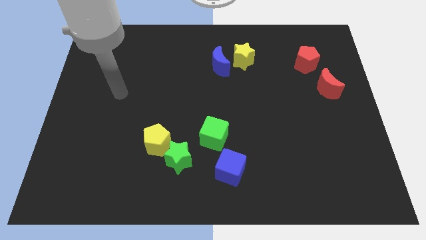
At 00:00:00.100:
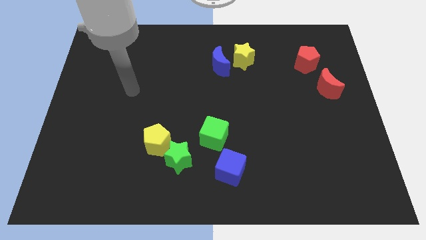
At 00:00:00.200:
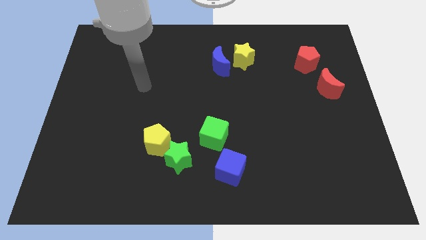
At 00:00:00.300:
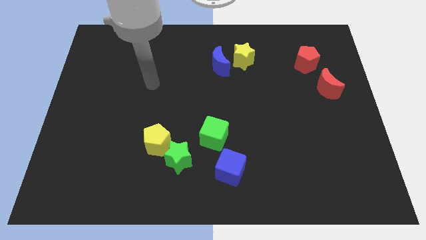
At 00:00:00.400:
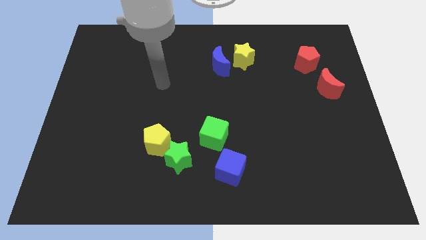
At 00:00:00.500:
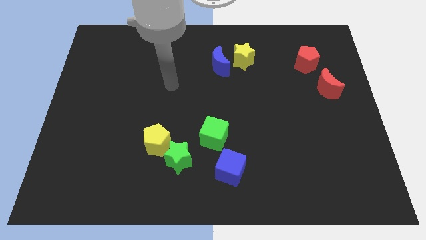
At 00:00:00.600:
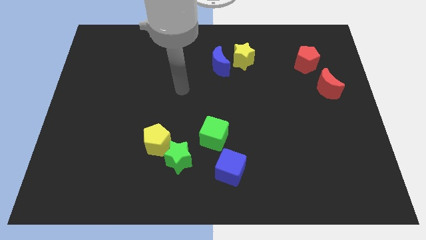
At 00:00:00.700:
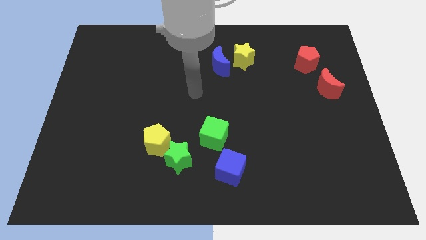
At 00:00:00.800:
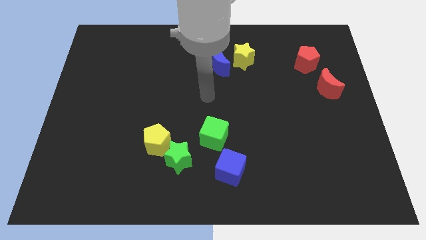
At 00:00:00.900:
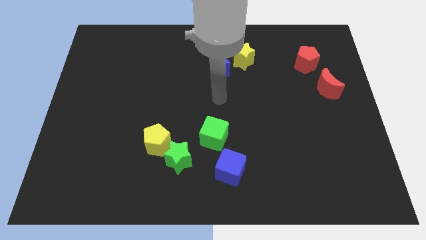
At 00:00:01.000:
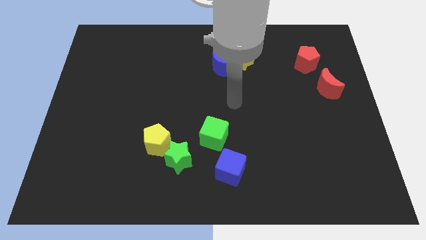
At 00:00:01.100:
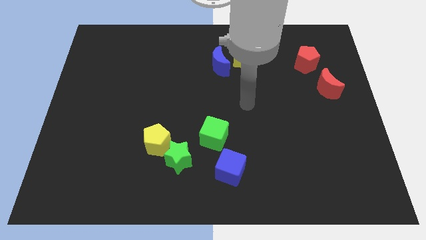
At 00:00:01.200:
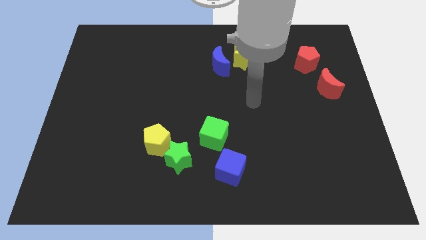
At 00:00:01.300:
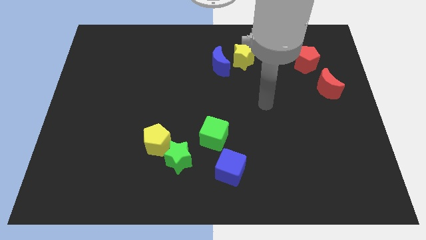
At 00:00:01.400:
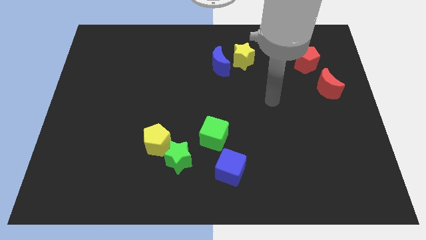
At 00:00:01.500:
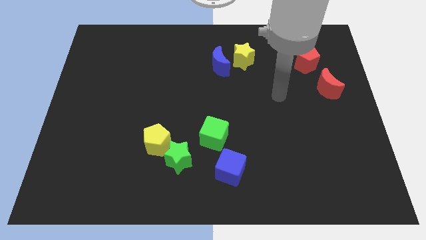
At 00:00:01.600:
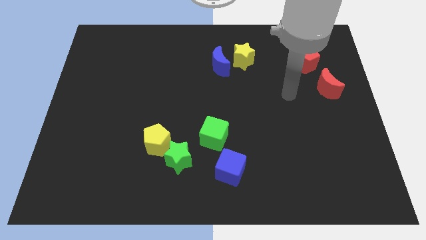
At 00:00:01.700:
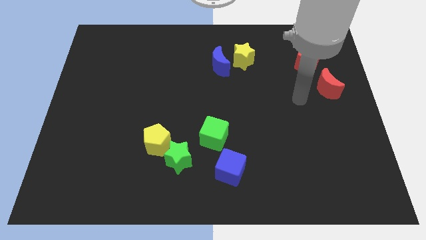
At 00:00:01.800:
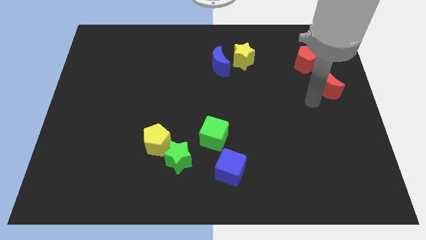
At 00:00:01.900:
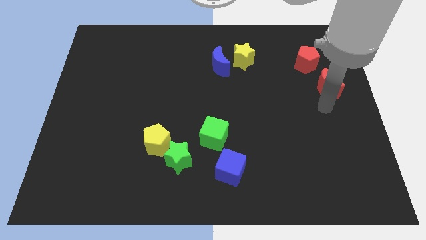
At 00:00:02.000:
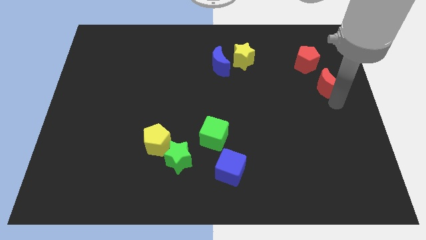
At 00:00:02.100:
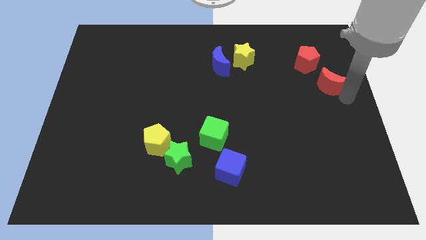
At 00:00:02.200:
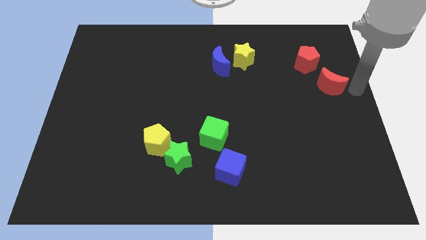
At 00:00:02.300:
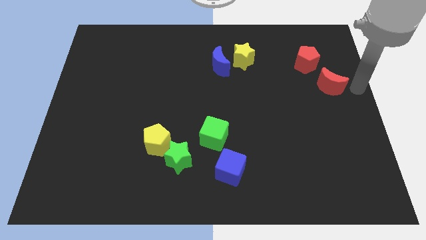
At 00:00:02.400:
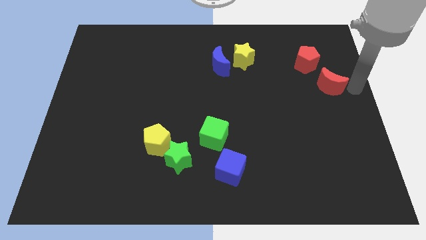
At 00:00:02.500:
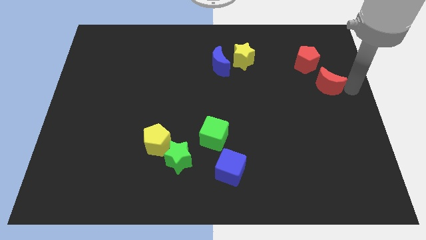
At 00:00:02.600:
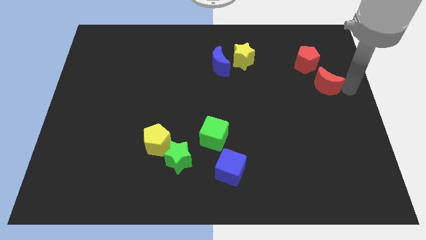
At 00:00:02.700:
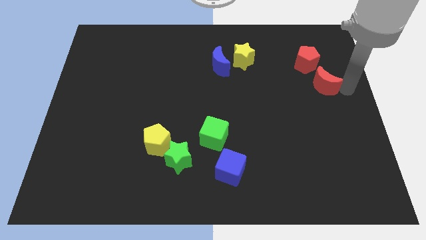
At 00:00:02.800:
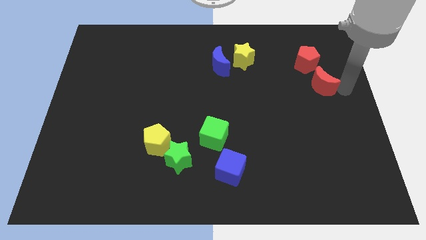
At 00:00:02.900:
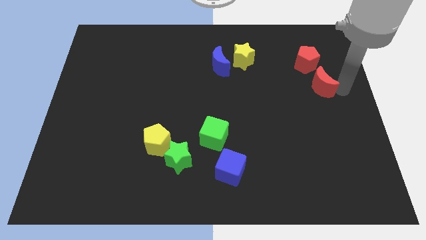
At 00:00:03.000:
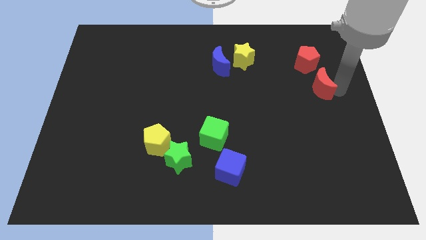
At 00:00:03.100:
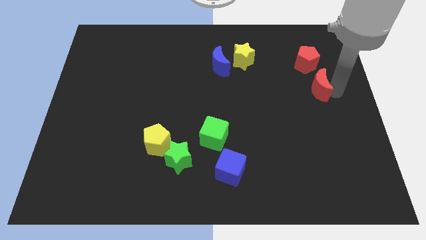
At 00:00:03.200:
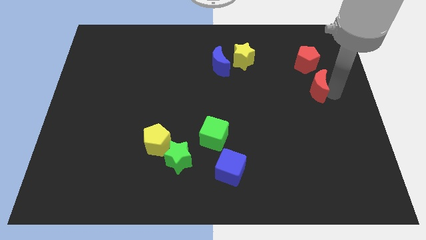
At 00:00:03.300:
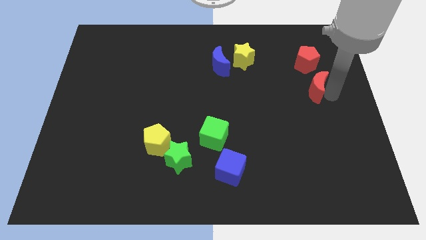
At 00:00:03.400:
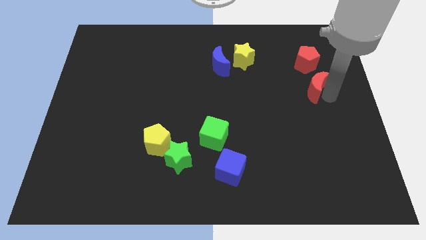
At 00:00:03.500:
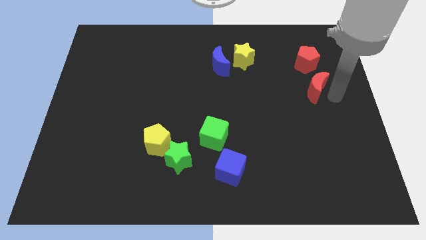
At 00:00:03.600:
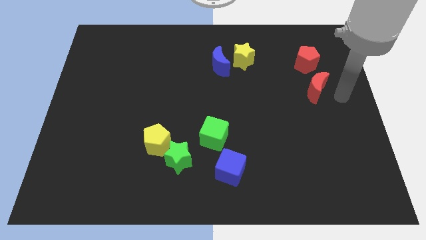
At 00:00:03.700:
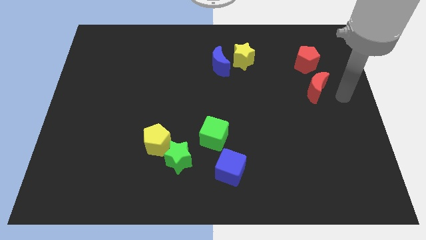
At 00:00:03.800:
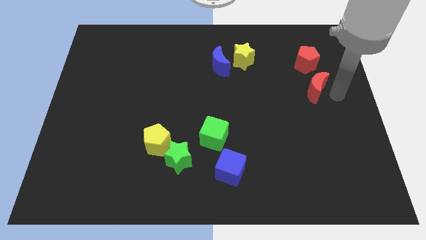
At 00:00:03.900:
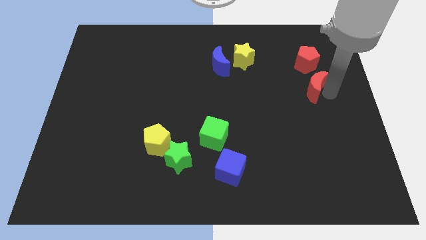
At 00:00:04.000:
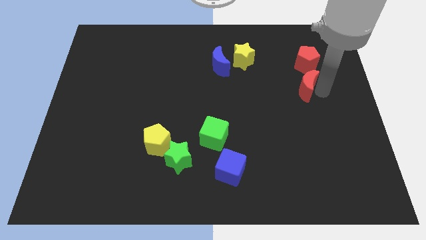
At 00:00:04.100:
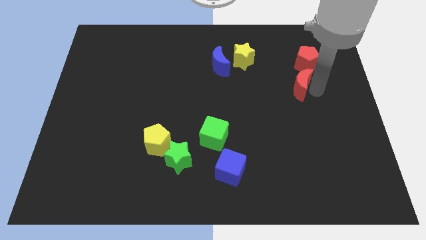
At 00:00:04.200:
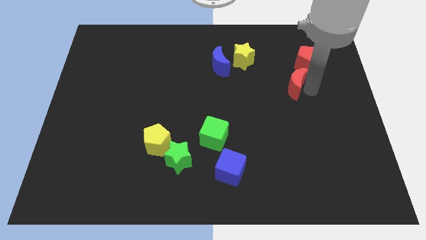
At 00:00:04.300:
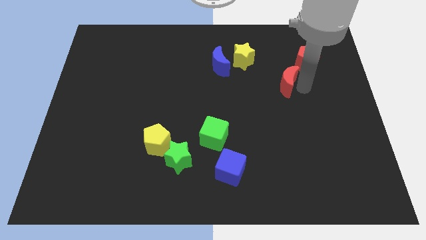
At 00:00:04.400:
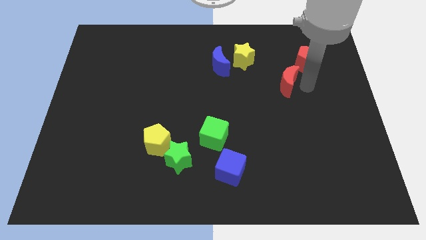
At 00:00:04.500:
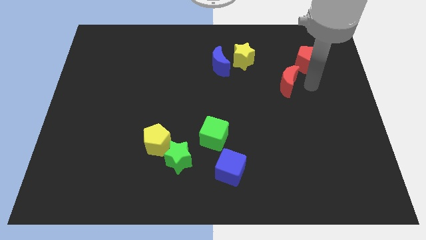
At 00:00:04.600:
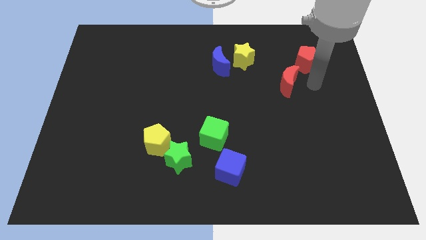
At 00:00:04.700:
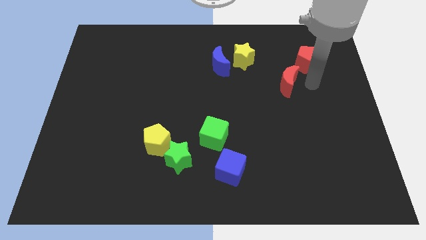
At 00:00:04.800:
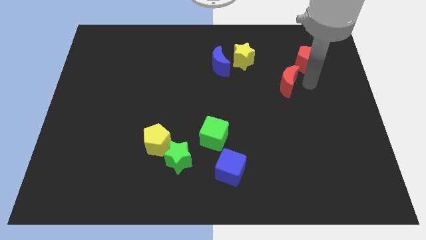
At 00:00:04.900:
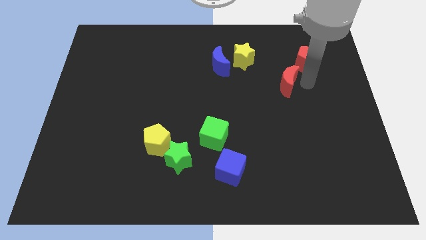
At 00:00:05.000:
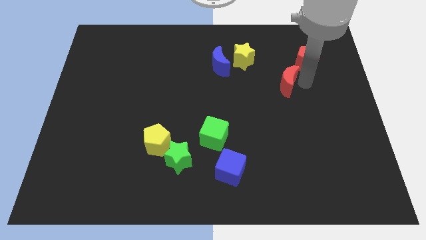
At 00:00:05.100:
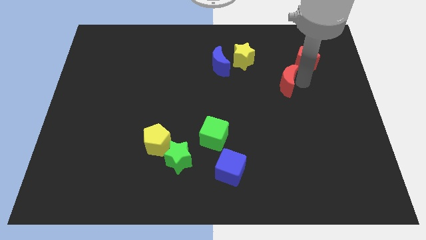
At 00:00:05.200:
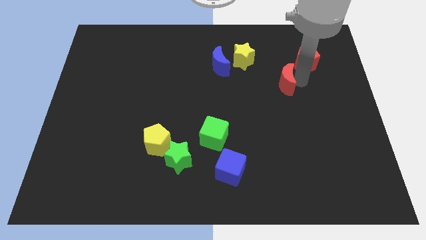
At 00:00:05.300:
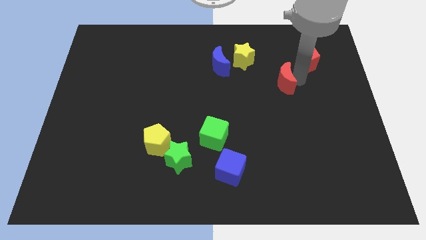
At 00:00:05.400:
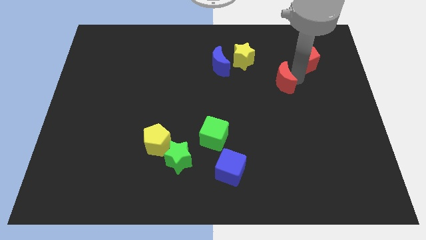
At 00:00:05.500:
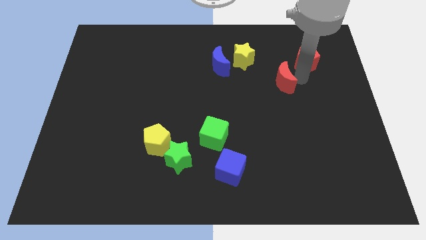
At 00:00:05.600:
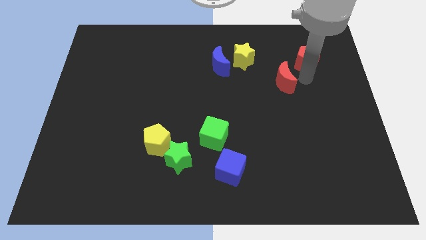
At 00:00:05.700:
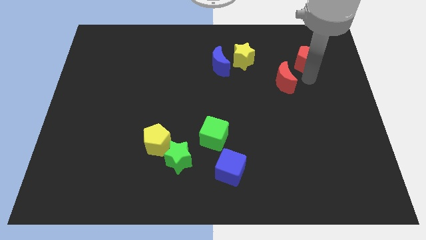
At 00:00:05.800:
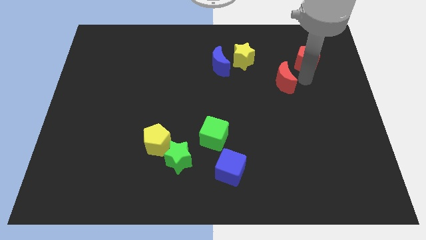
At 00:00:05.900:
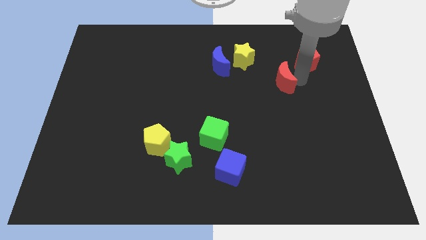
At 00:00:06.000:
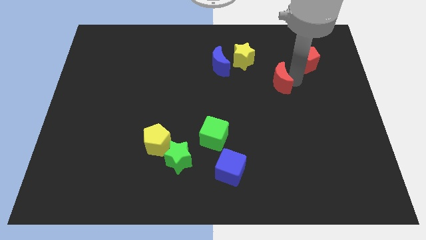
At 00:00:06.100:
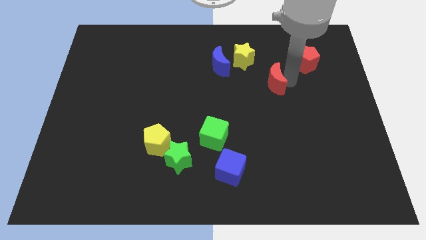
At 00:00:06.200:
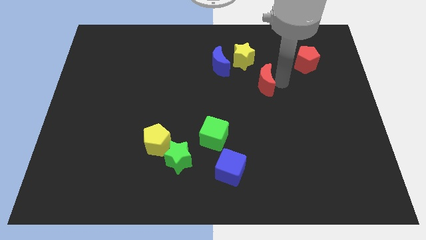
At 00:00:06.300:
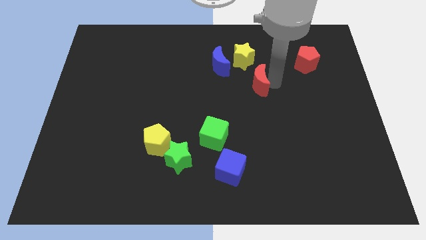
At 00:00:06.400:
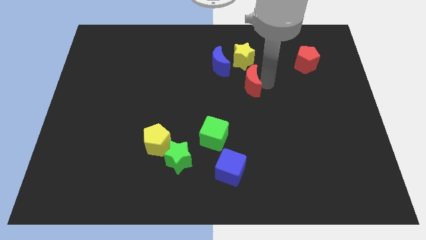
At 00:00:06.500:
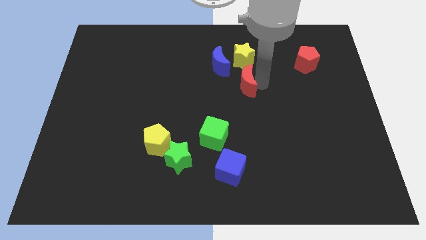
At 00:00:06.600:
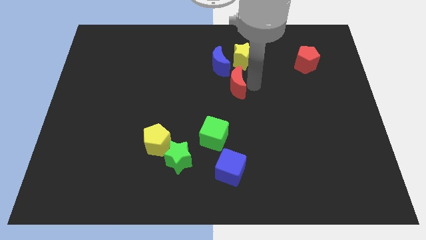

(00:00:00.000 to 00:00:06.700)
move the red moon to the left

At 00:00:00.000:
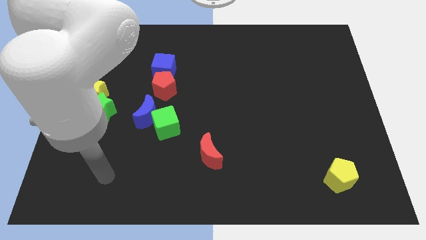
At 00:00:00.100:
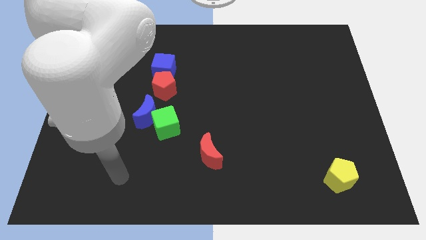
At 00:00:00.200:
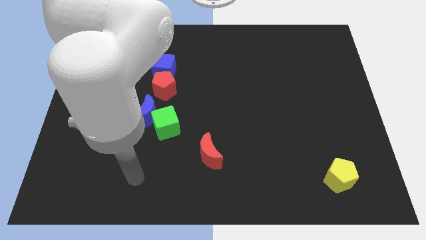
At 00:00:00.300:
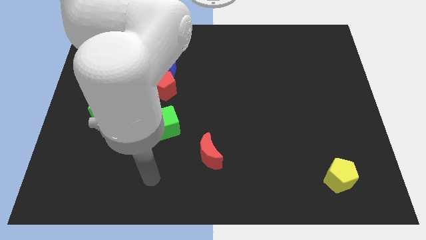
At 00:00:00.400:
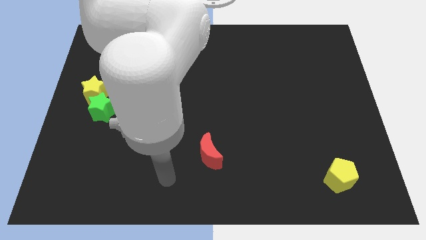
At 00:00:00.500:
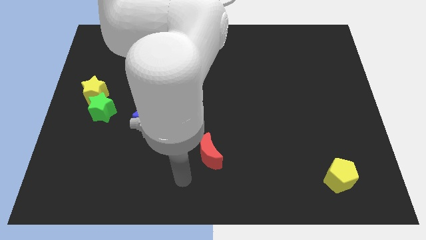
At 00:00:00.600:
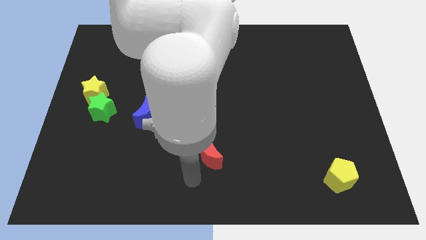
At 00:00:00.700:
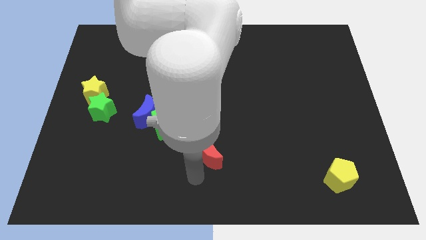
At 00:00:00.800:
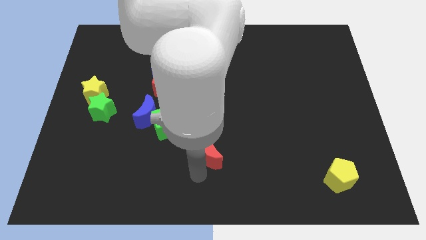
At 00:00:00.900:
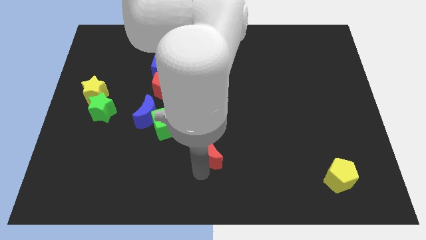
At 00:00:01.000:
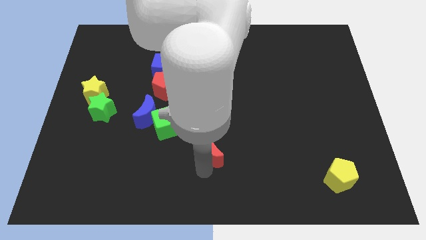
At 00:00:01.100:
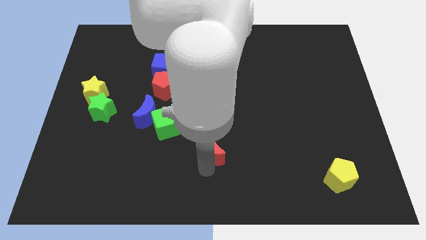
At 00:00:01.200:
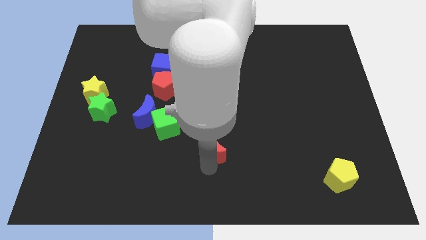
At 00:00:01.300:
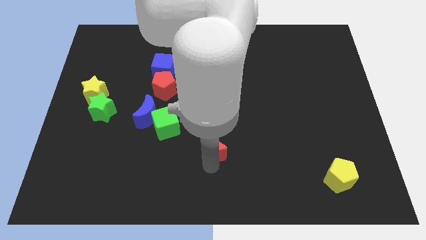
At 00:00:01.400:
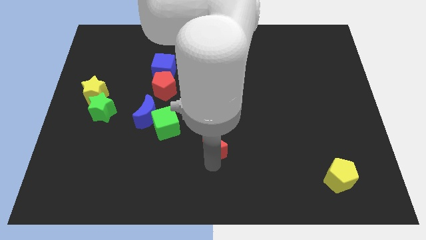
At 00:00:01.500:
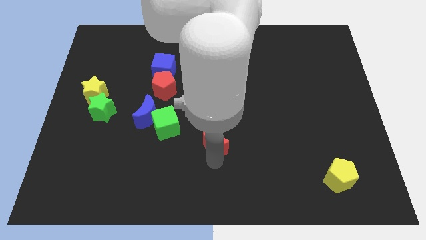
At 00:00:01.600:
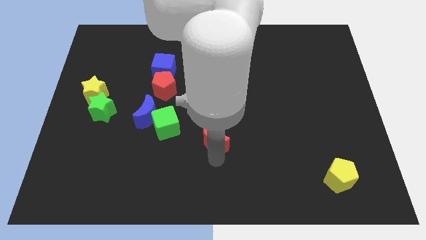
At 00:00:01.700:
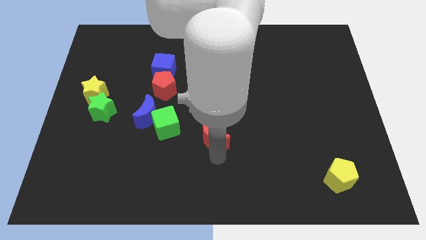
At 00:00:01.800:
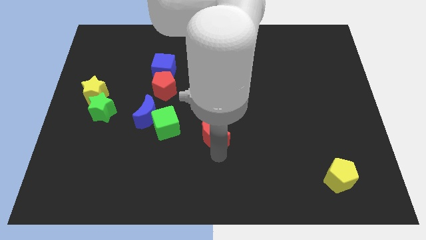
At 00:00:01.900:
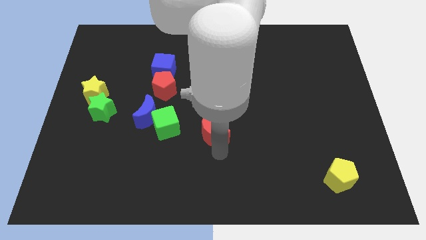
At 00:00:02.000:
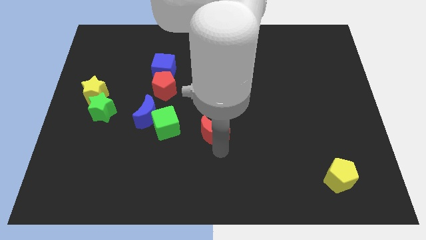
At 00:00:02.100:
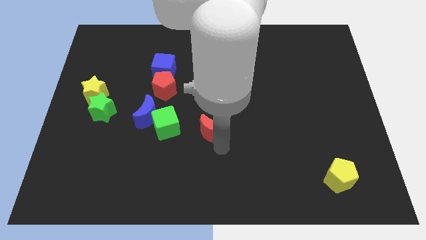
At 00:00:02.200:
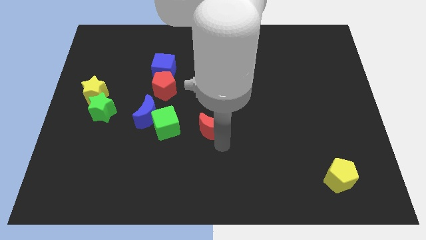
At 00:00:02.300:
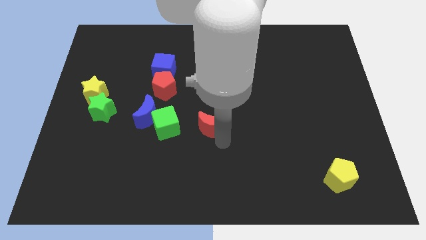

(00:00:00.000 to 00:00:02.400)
slide the red moon a bit up
